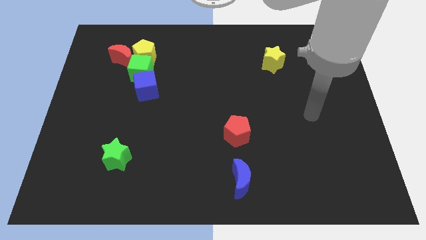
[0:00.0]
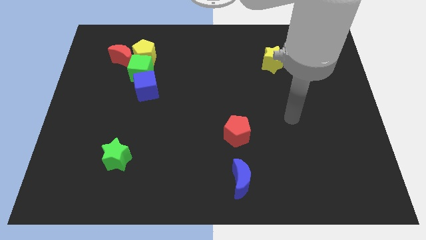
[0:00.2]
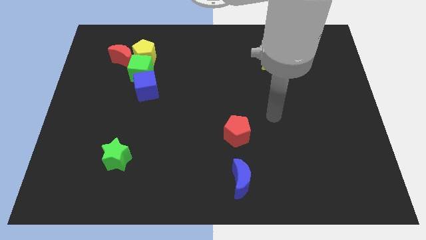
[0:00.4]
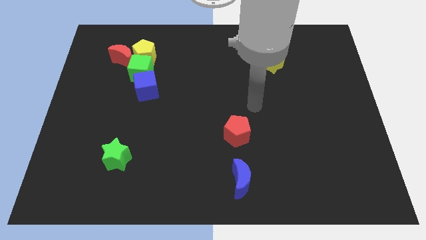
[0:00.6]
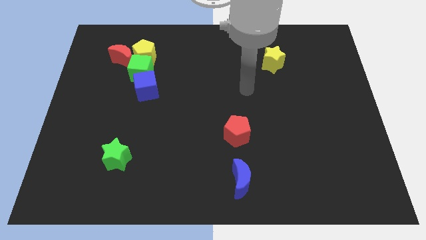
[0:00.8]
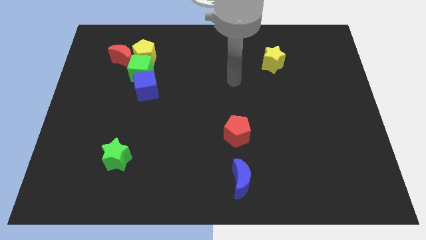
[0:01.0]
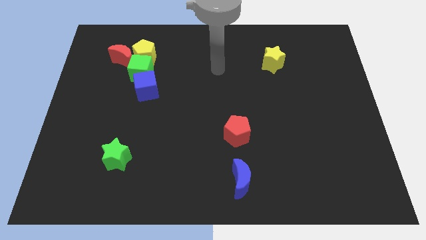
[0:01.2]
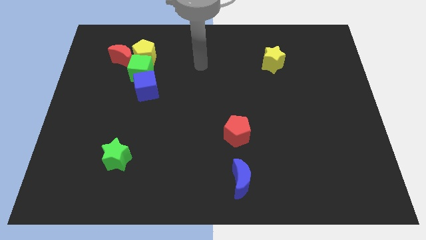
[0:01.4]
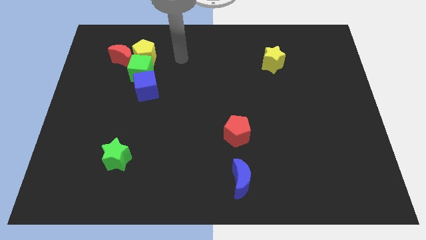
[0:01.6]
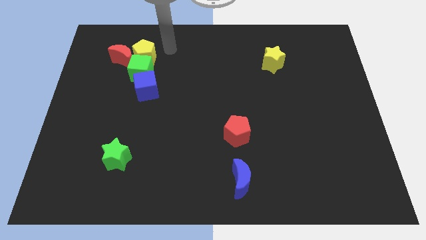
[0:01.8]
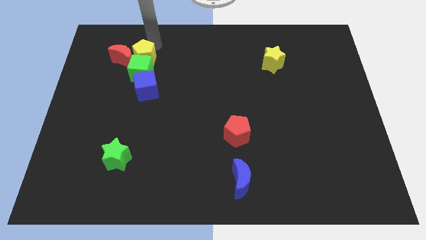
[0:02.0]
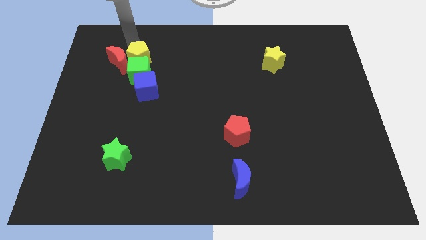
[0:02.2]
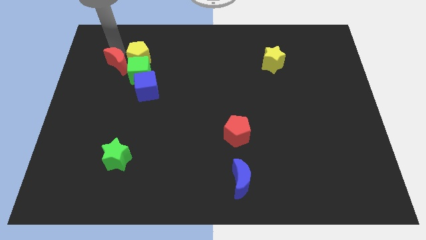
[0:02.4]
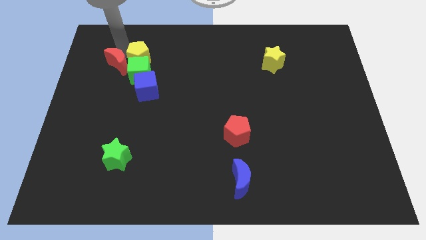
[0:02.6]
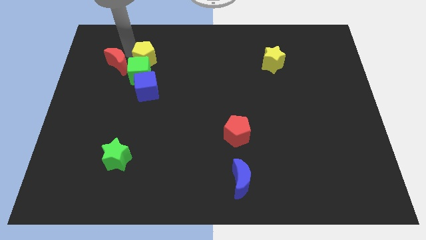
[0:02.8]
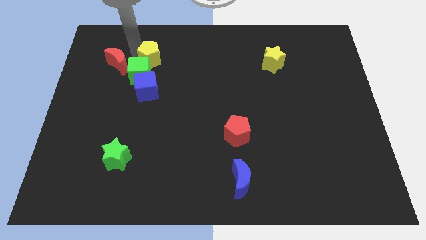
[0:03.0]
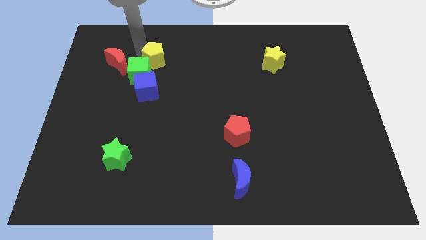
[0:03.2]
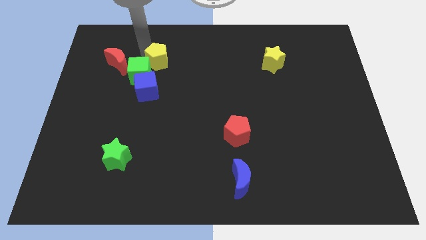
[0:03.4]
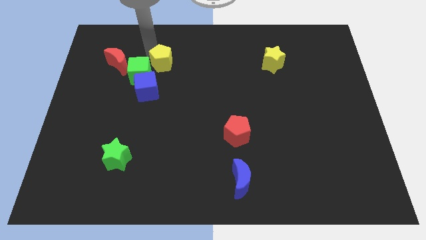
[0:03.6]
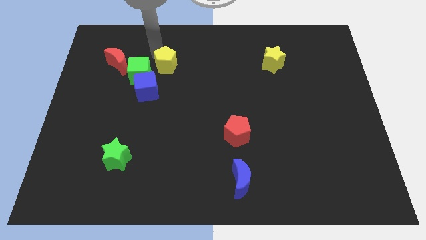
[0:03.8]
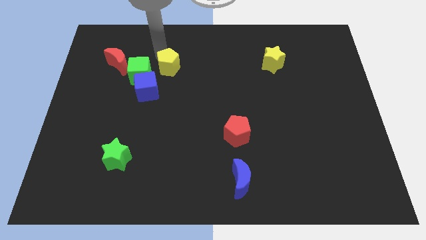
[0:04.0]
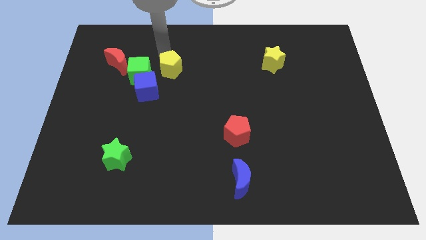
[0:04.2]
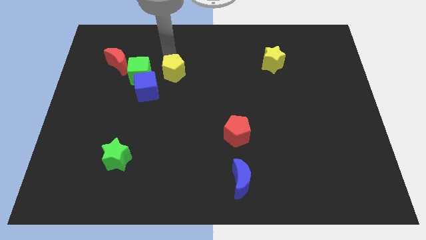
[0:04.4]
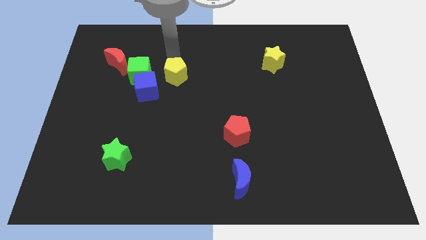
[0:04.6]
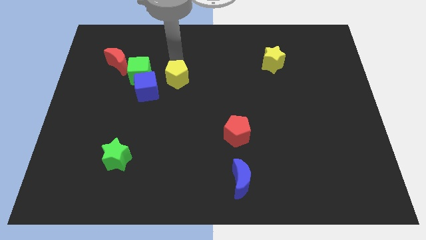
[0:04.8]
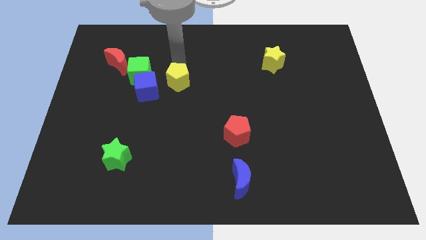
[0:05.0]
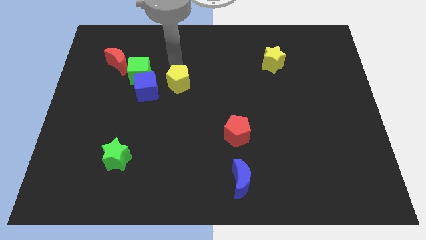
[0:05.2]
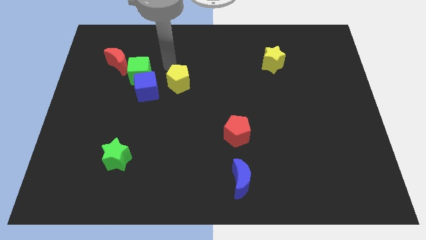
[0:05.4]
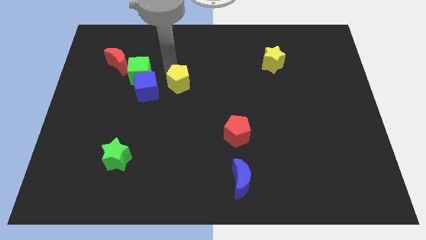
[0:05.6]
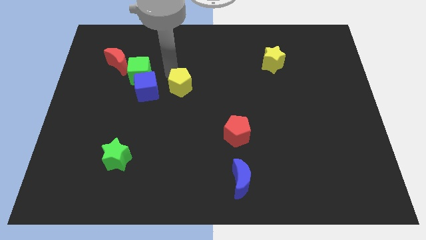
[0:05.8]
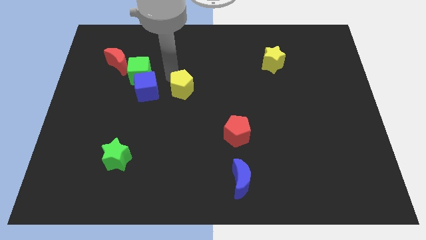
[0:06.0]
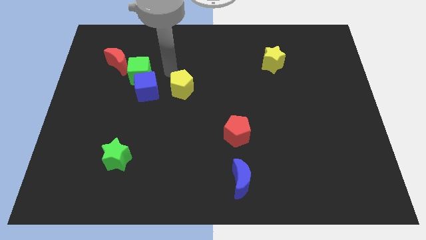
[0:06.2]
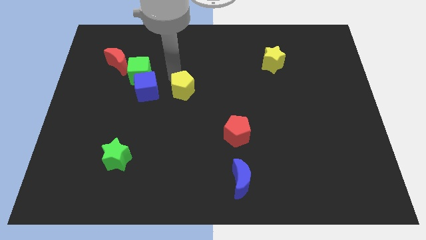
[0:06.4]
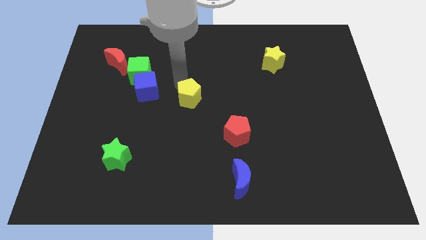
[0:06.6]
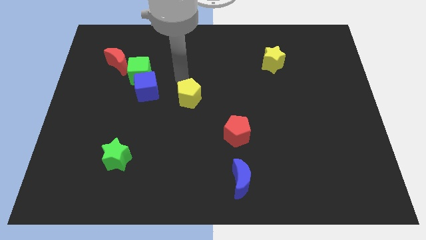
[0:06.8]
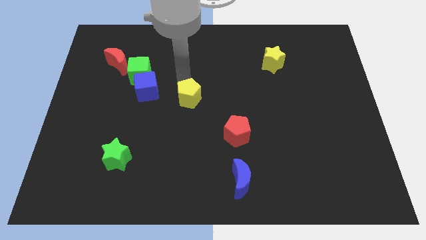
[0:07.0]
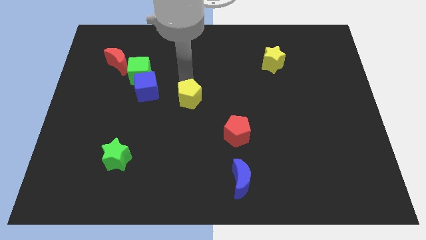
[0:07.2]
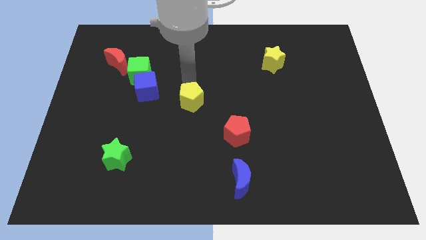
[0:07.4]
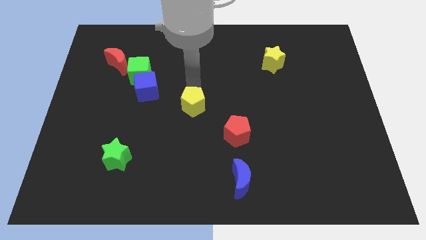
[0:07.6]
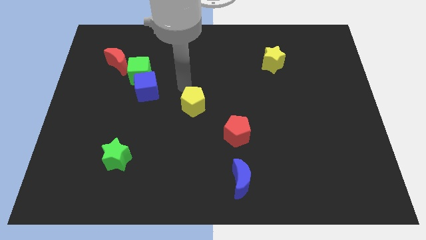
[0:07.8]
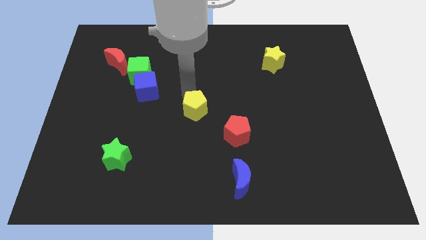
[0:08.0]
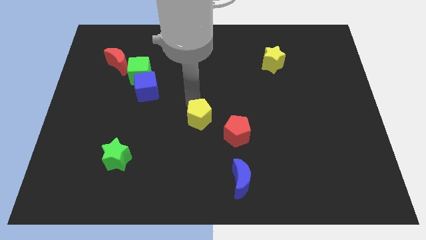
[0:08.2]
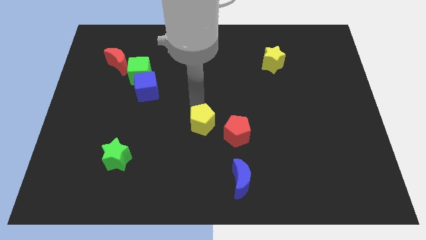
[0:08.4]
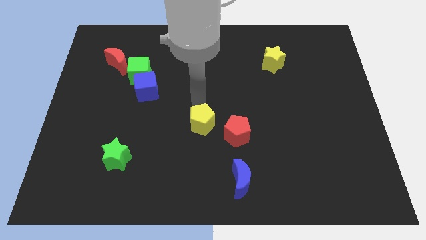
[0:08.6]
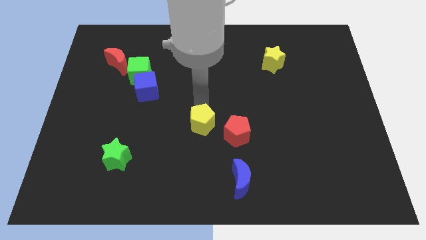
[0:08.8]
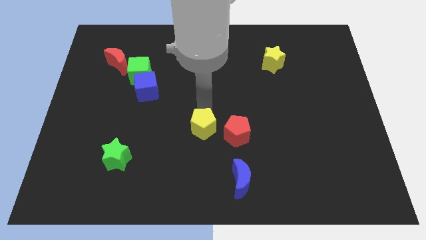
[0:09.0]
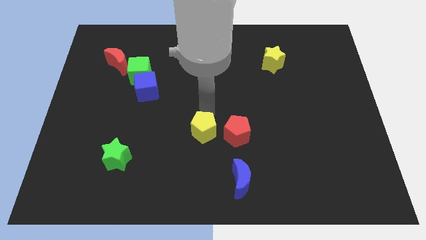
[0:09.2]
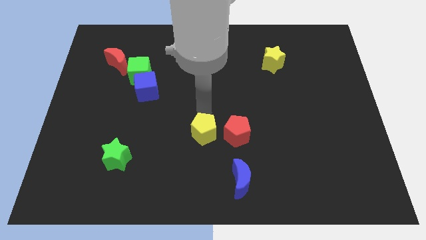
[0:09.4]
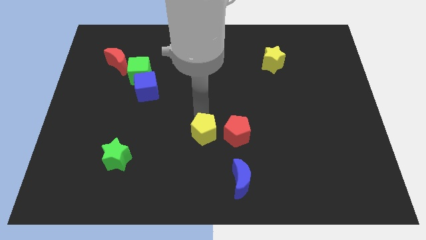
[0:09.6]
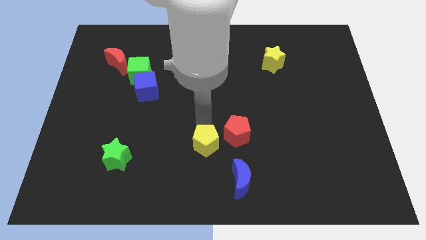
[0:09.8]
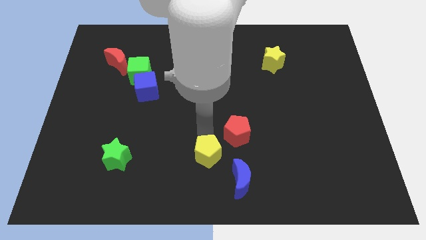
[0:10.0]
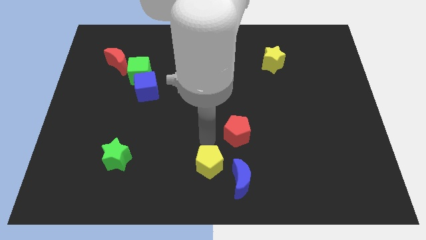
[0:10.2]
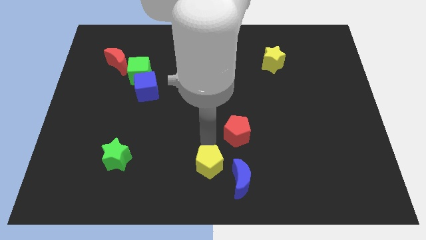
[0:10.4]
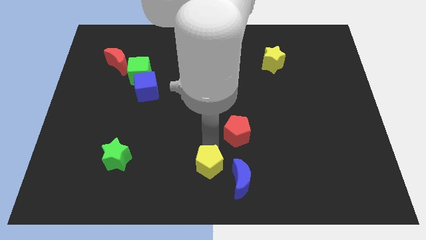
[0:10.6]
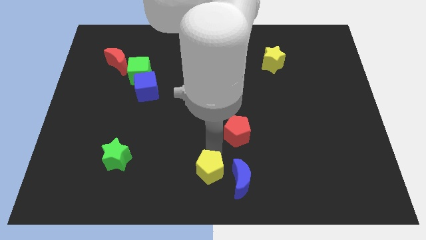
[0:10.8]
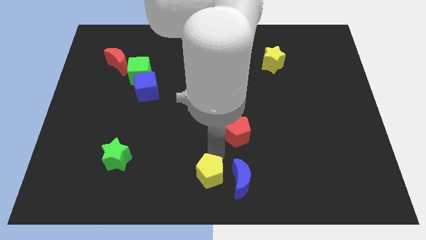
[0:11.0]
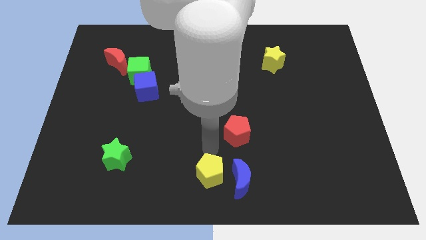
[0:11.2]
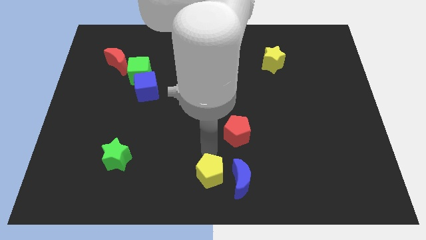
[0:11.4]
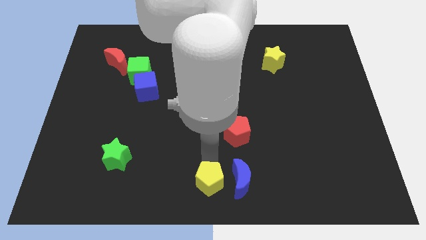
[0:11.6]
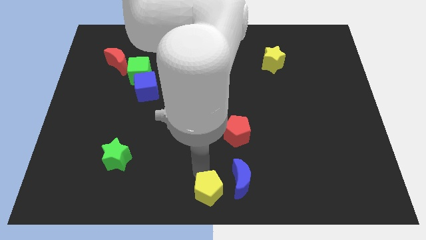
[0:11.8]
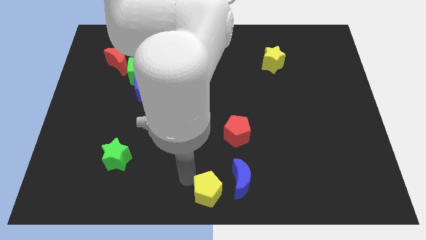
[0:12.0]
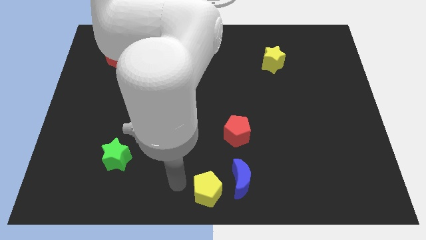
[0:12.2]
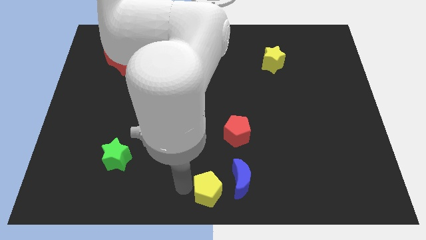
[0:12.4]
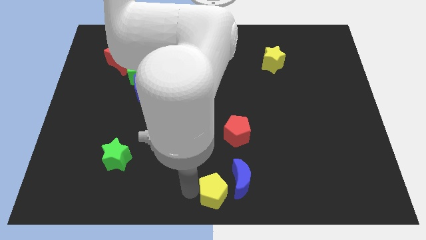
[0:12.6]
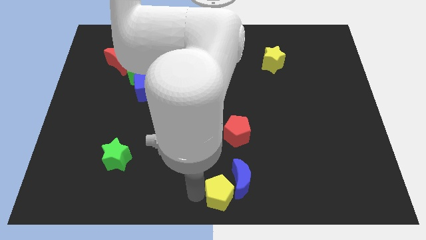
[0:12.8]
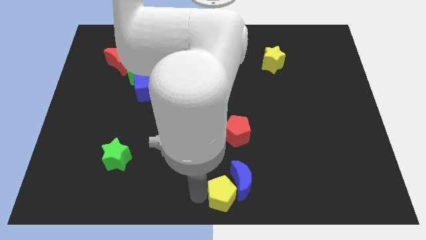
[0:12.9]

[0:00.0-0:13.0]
push the yellow pentagon to the bottom side of the red pentagon

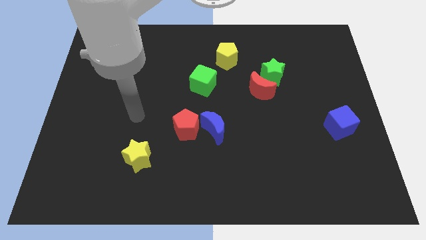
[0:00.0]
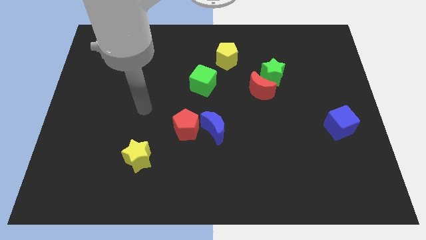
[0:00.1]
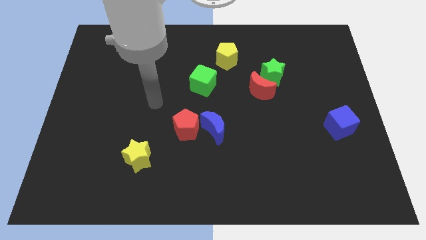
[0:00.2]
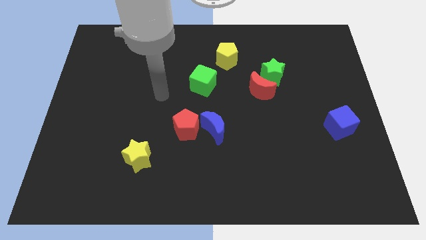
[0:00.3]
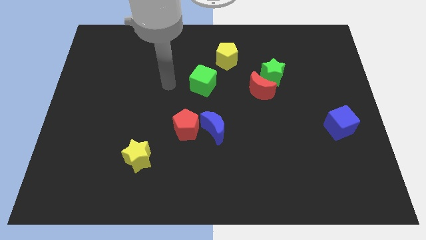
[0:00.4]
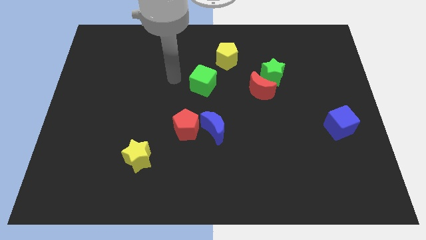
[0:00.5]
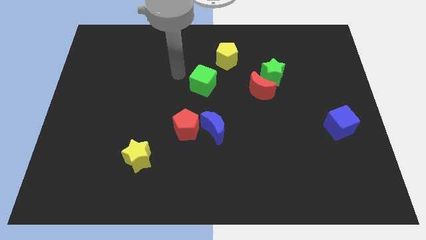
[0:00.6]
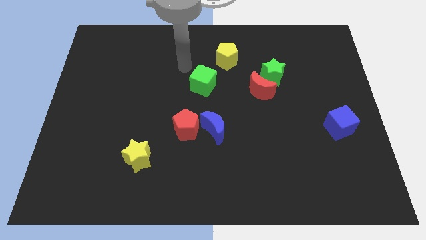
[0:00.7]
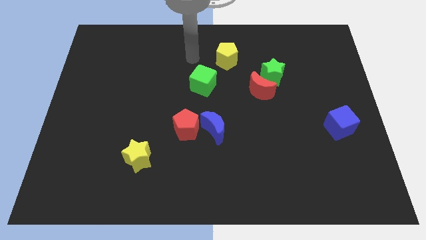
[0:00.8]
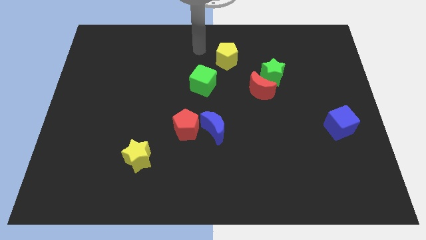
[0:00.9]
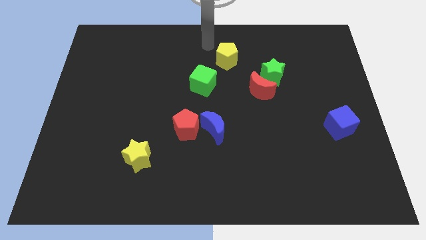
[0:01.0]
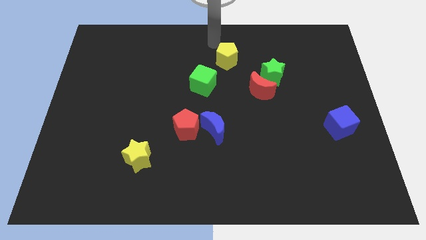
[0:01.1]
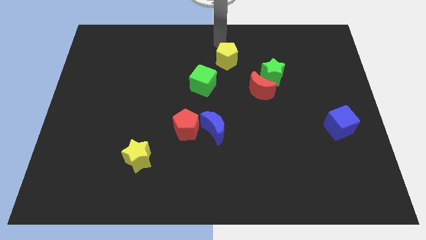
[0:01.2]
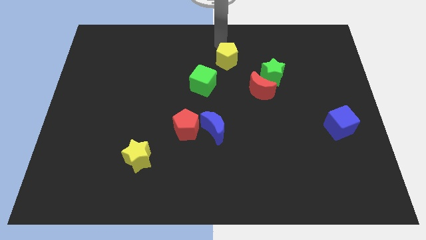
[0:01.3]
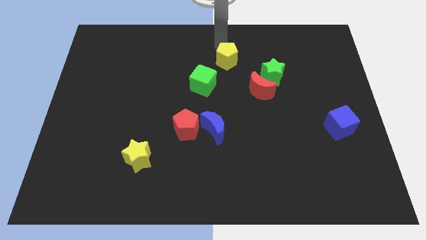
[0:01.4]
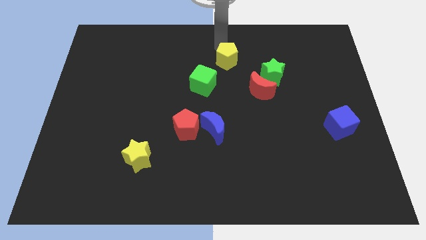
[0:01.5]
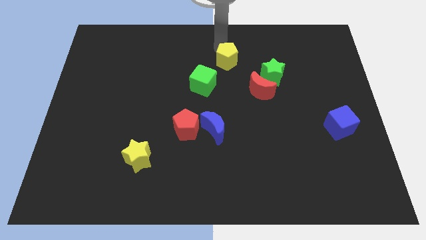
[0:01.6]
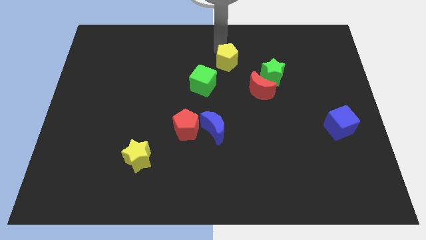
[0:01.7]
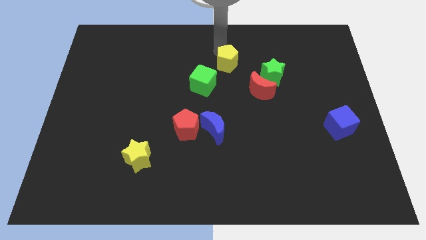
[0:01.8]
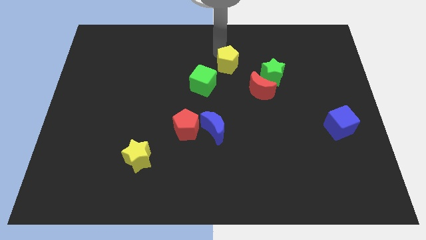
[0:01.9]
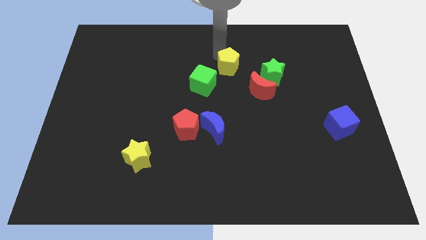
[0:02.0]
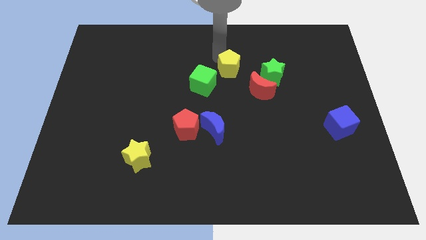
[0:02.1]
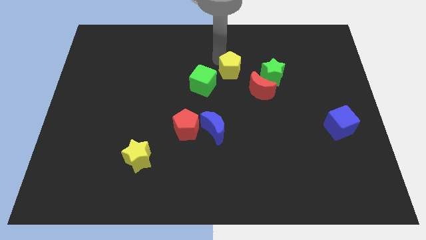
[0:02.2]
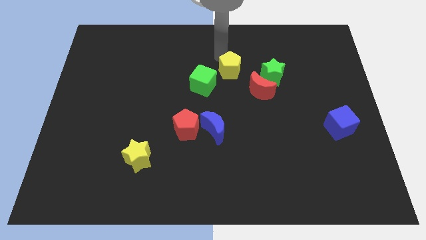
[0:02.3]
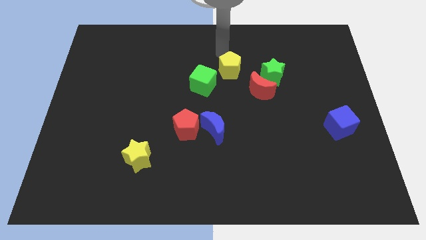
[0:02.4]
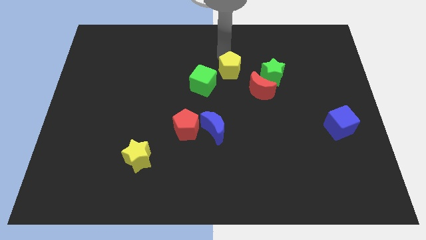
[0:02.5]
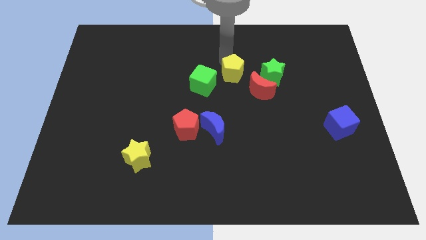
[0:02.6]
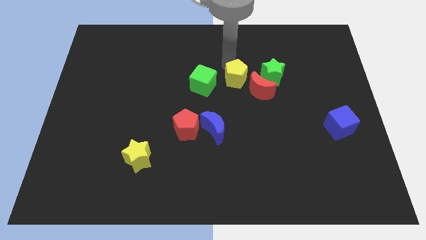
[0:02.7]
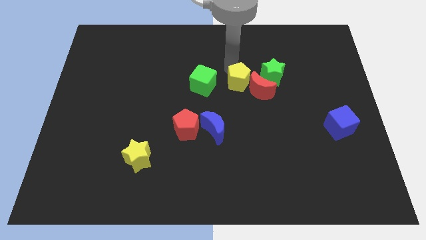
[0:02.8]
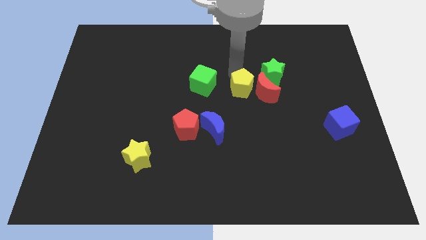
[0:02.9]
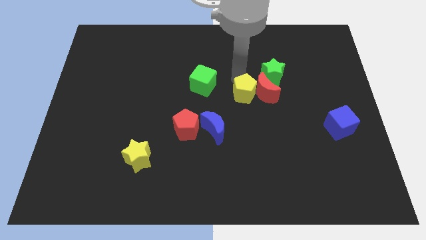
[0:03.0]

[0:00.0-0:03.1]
move the yellow pentagon to the bottom left of the red moon
